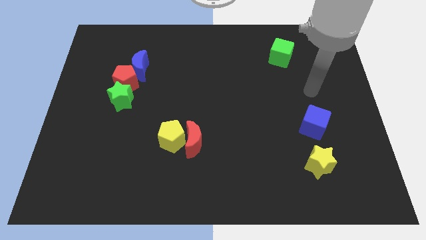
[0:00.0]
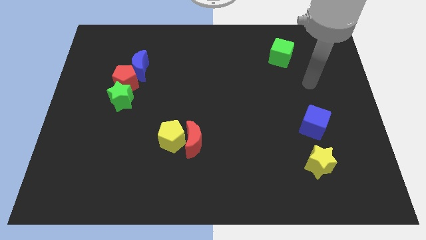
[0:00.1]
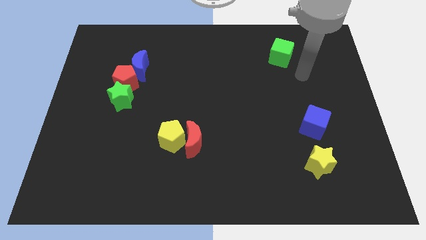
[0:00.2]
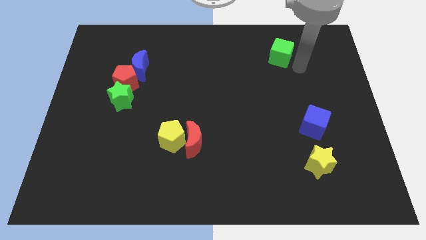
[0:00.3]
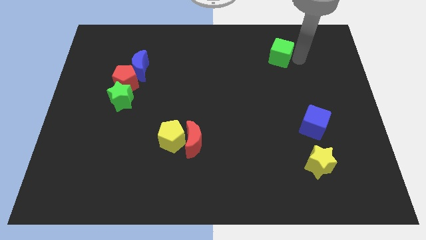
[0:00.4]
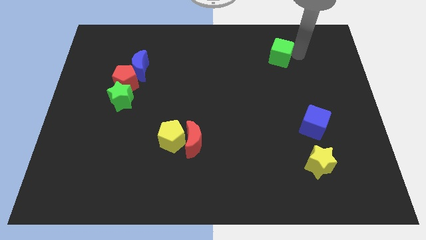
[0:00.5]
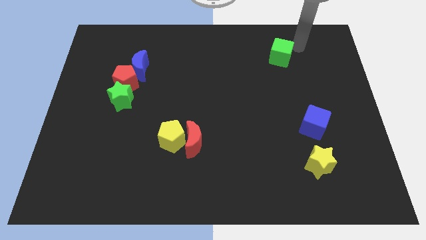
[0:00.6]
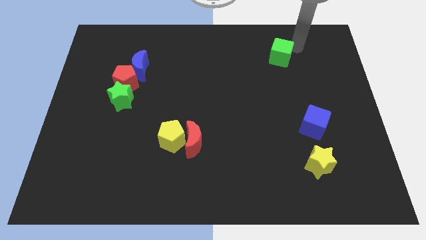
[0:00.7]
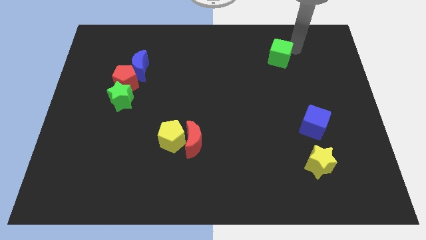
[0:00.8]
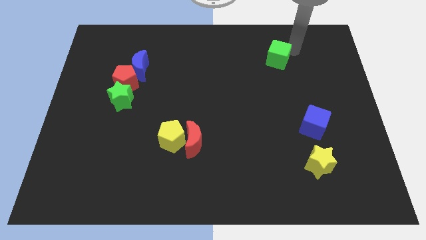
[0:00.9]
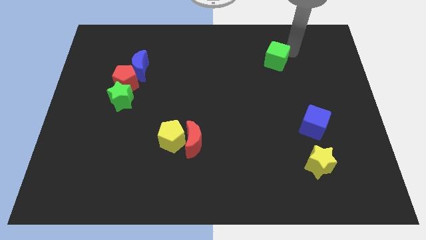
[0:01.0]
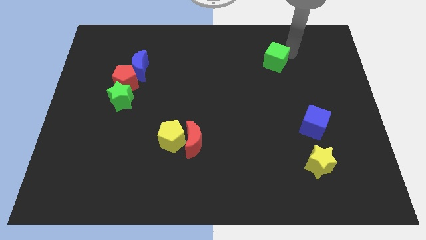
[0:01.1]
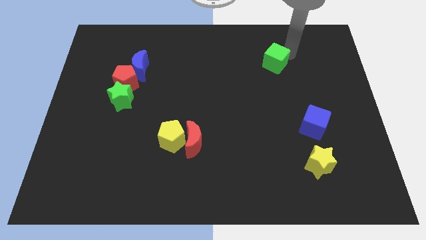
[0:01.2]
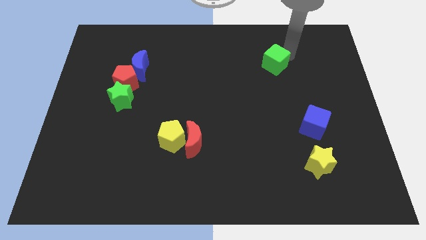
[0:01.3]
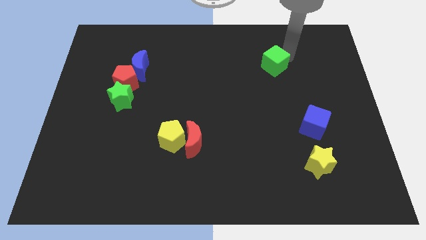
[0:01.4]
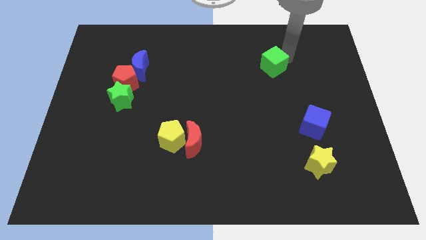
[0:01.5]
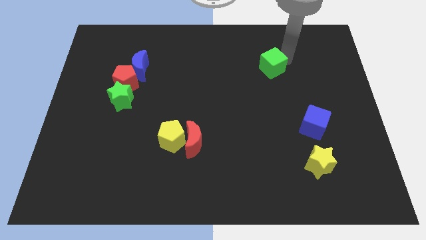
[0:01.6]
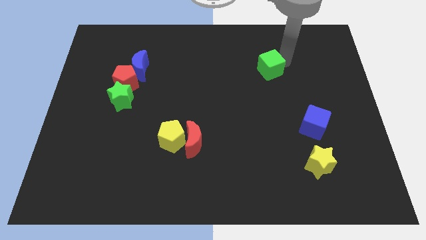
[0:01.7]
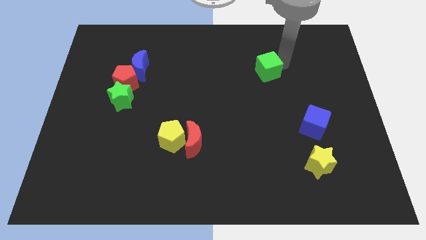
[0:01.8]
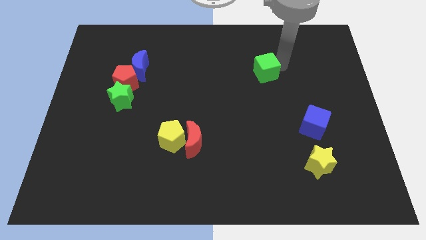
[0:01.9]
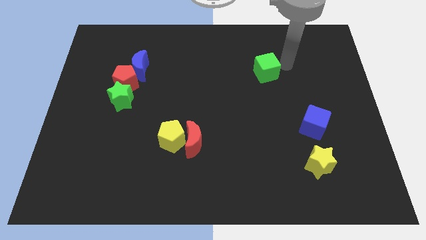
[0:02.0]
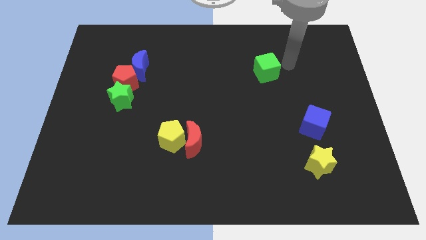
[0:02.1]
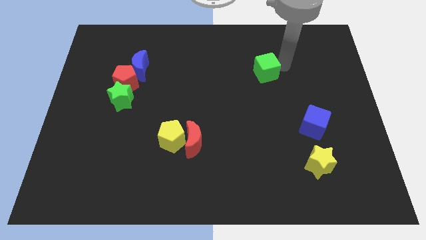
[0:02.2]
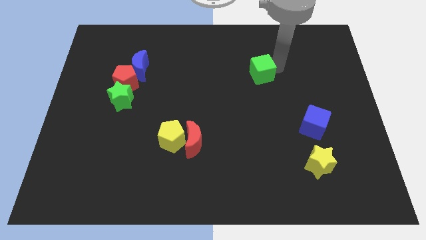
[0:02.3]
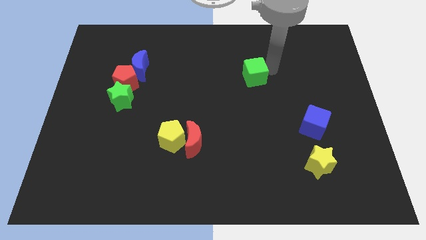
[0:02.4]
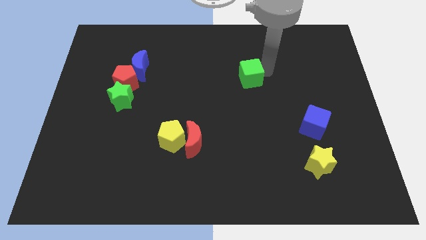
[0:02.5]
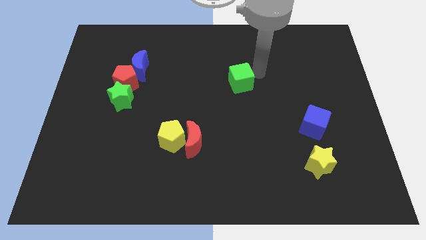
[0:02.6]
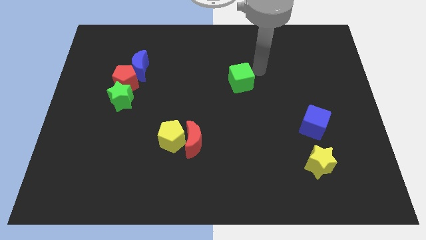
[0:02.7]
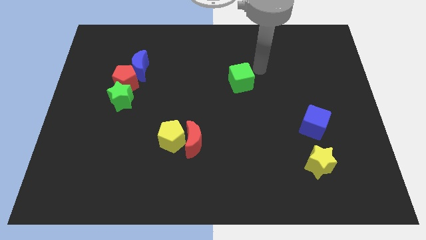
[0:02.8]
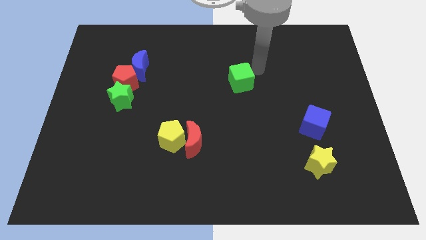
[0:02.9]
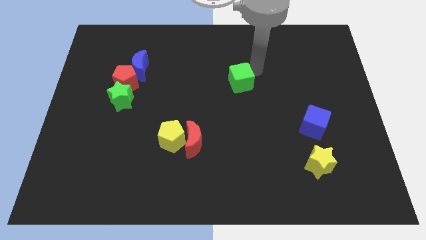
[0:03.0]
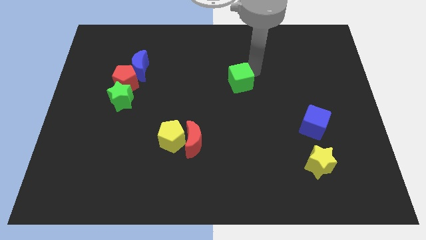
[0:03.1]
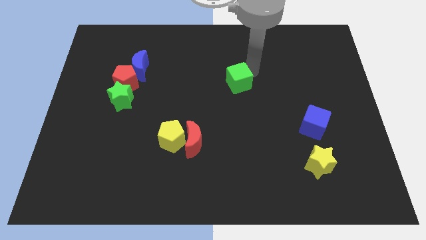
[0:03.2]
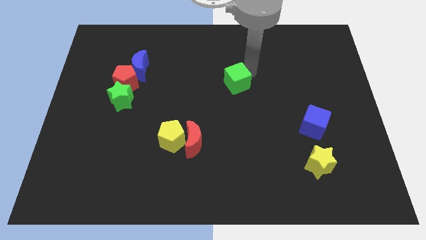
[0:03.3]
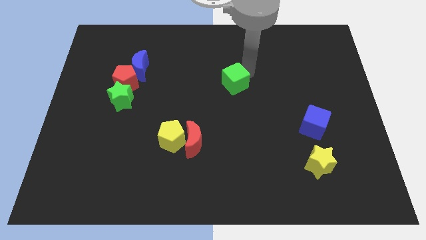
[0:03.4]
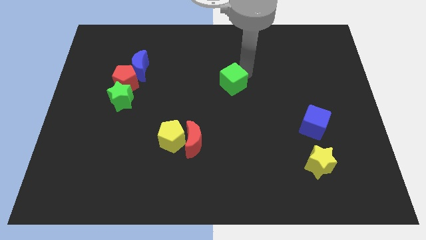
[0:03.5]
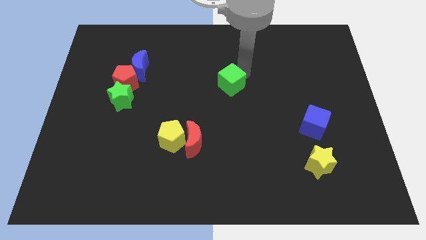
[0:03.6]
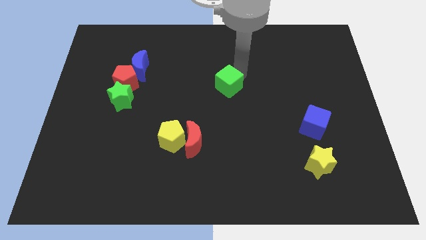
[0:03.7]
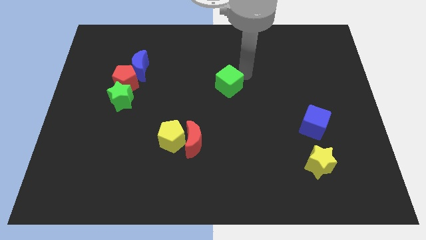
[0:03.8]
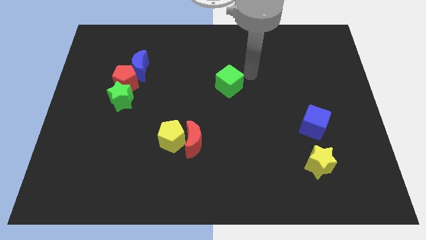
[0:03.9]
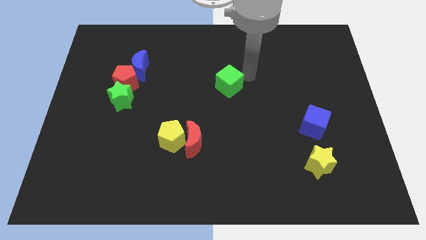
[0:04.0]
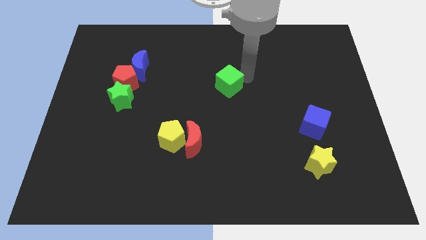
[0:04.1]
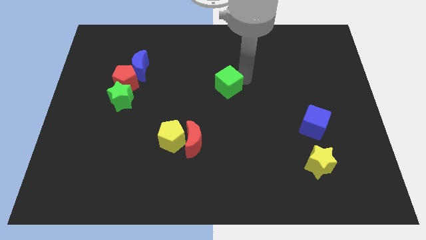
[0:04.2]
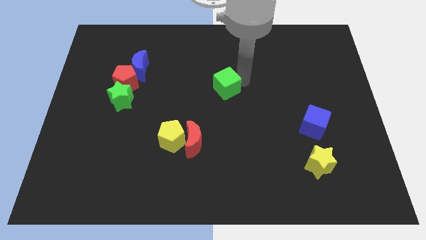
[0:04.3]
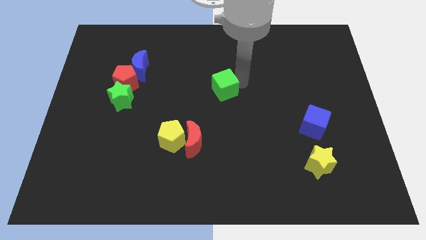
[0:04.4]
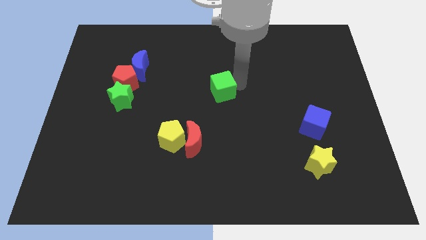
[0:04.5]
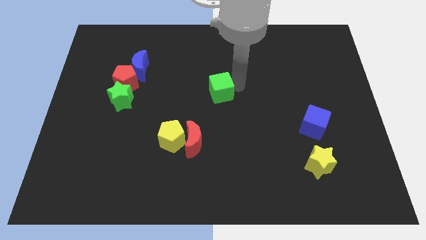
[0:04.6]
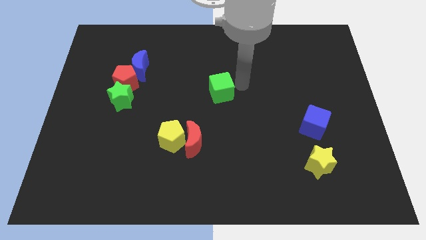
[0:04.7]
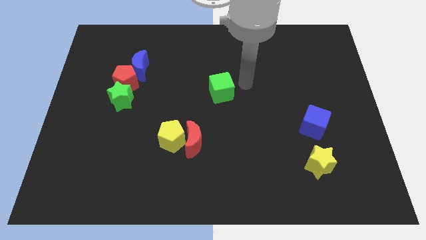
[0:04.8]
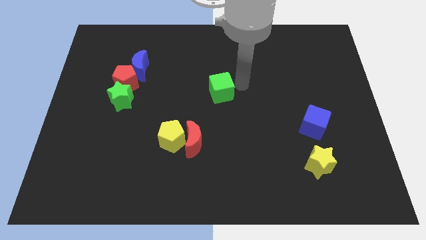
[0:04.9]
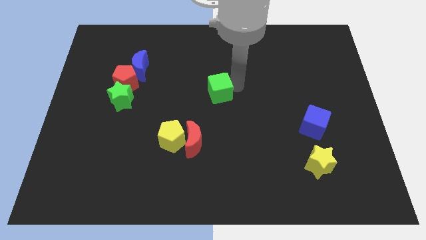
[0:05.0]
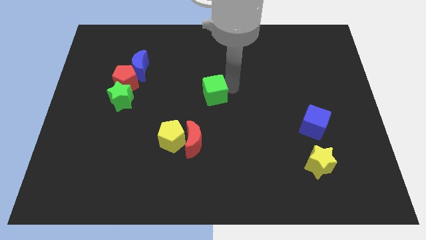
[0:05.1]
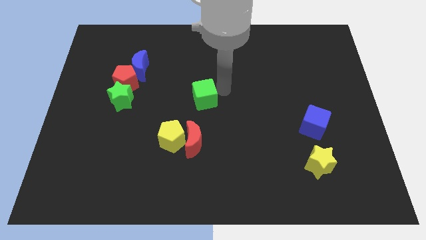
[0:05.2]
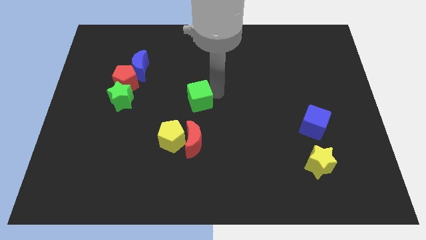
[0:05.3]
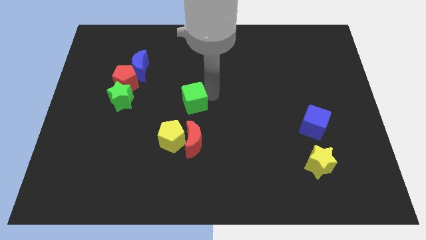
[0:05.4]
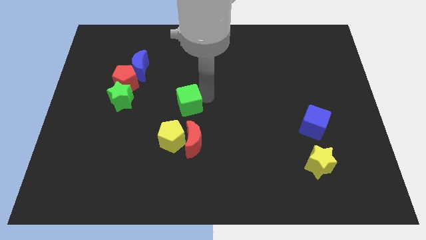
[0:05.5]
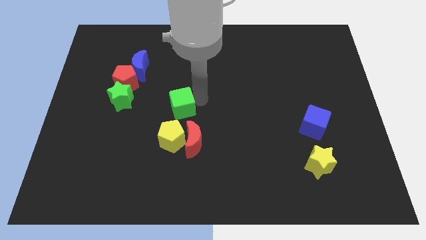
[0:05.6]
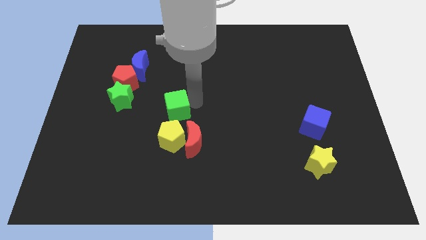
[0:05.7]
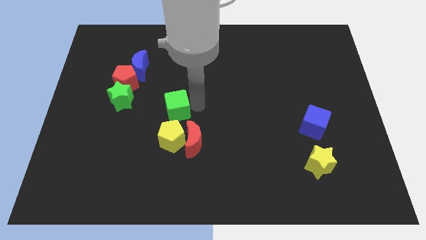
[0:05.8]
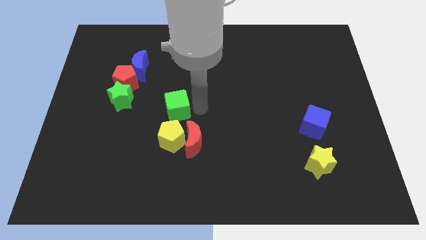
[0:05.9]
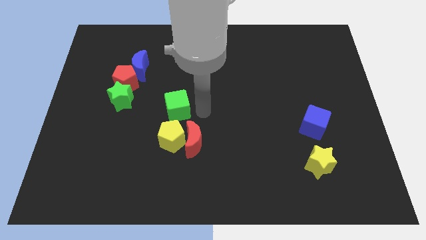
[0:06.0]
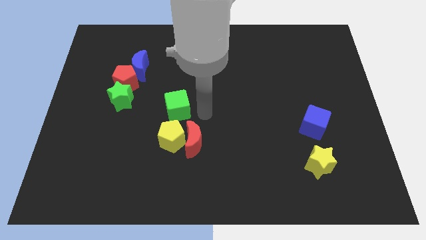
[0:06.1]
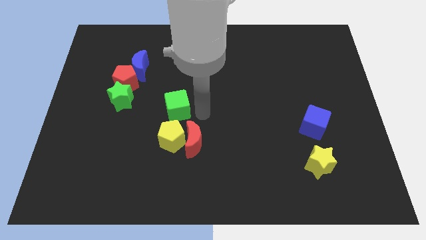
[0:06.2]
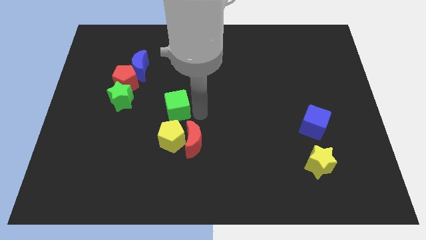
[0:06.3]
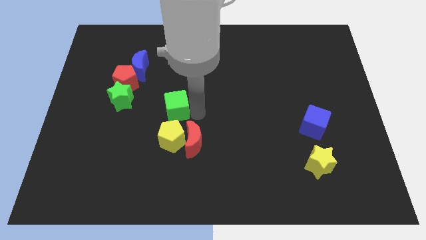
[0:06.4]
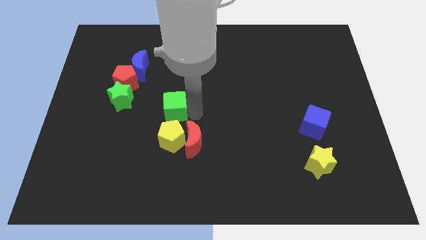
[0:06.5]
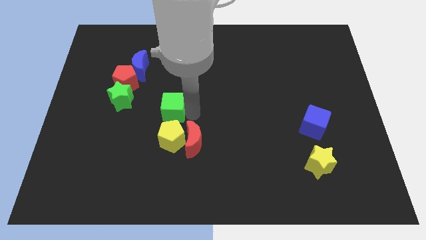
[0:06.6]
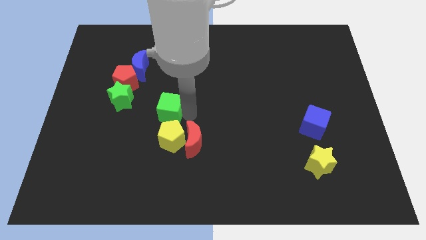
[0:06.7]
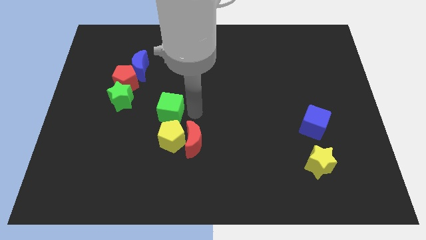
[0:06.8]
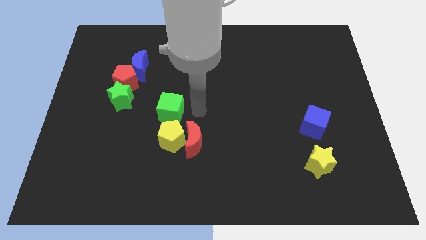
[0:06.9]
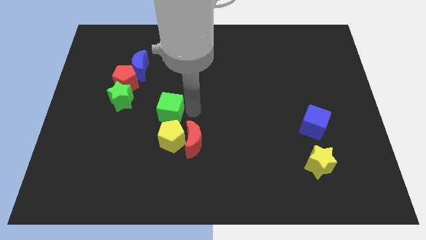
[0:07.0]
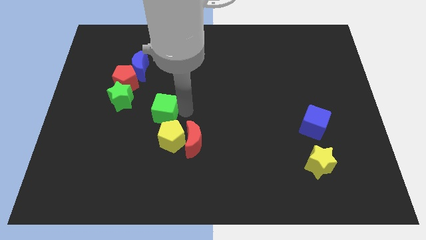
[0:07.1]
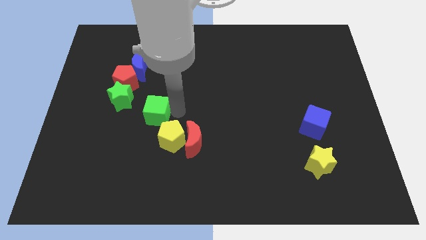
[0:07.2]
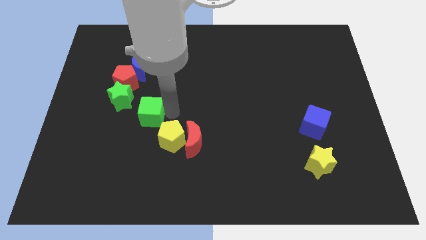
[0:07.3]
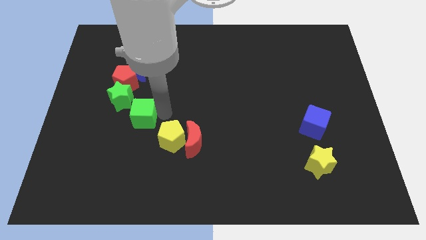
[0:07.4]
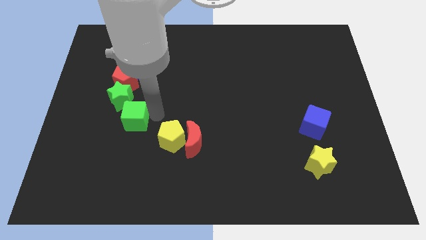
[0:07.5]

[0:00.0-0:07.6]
put the green cube below the red pentagon
